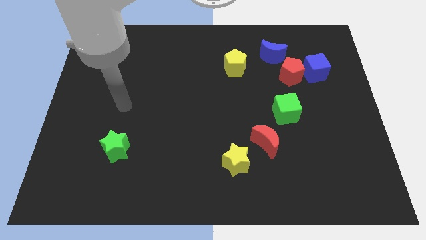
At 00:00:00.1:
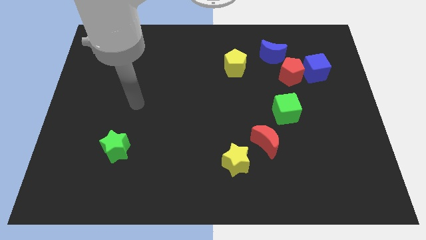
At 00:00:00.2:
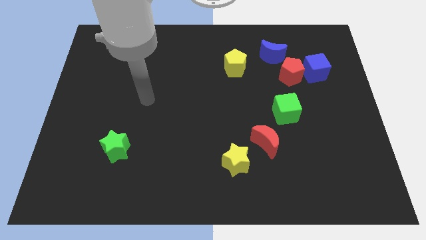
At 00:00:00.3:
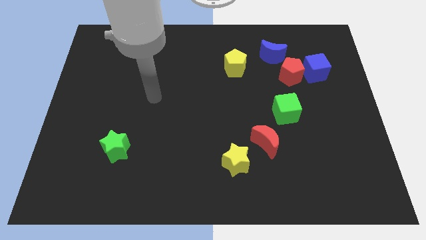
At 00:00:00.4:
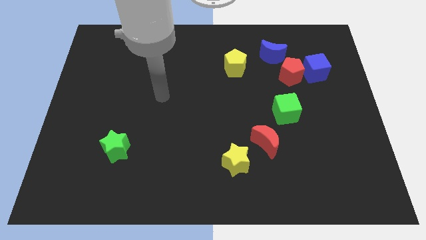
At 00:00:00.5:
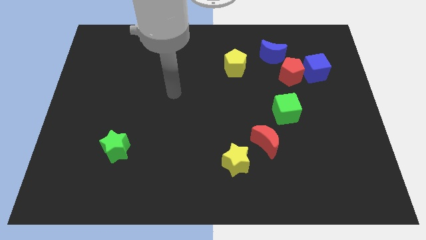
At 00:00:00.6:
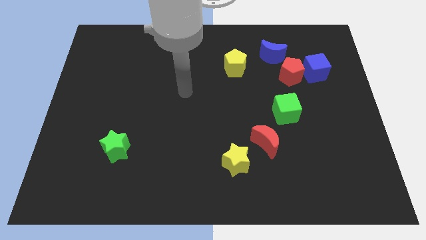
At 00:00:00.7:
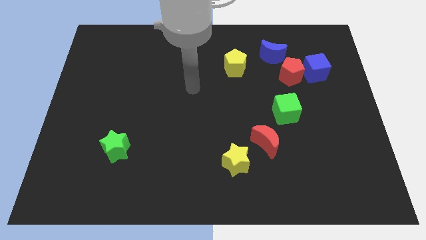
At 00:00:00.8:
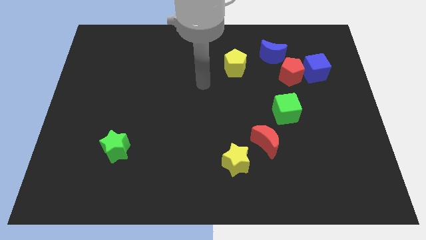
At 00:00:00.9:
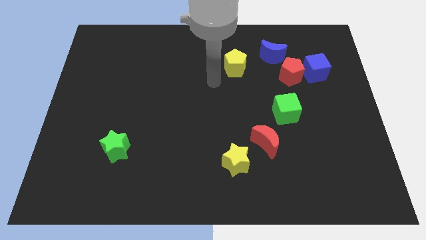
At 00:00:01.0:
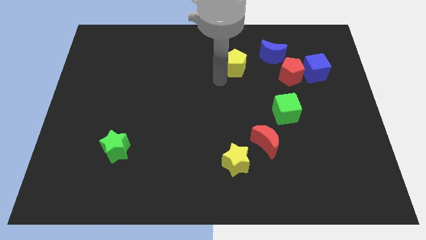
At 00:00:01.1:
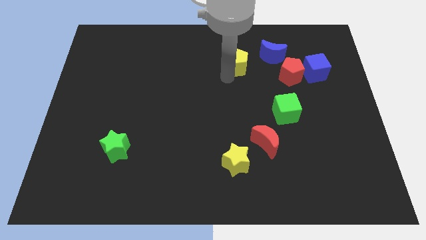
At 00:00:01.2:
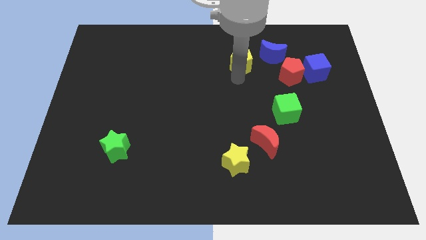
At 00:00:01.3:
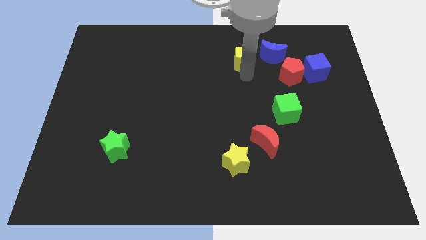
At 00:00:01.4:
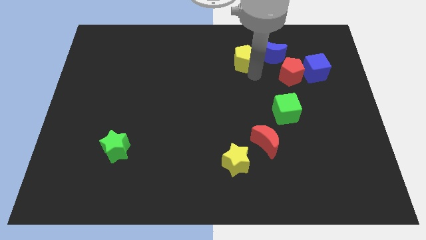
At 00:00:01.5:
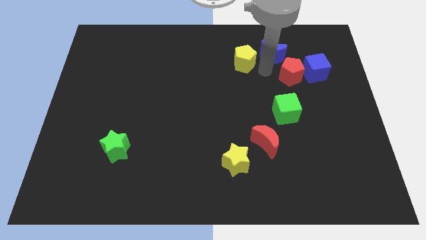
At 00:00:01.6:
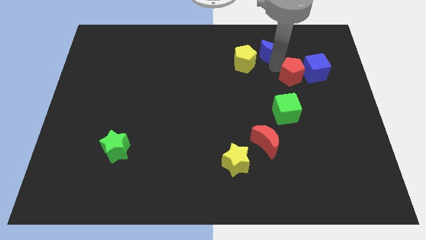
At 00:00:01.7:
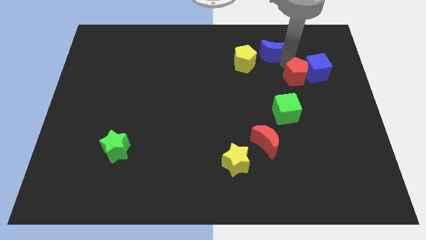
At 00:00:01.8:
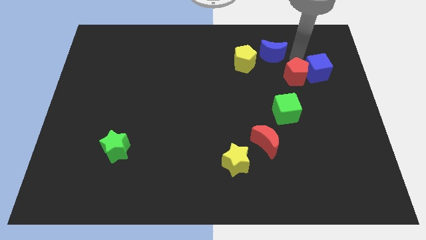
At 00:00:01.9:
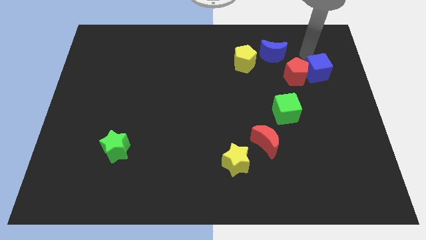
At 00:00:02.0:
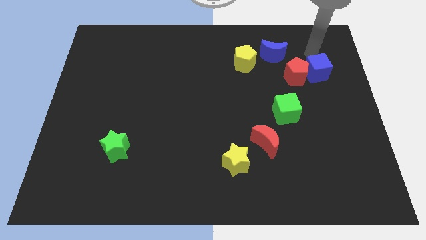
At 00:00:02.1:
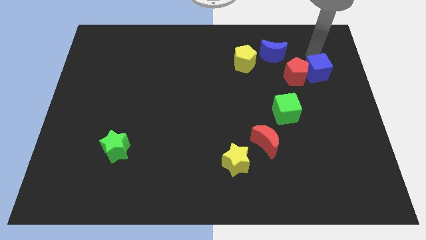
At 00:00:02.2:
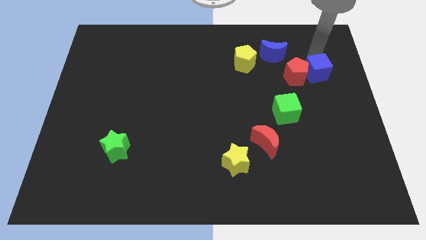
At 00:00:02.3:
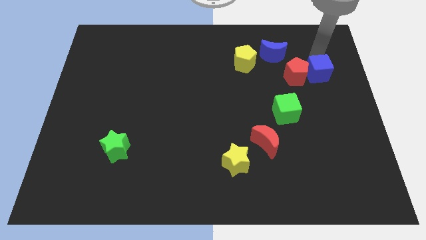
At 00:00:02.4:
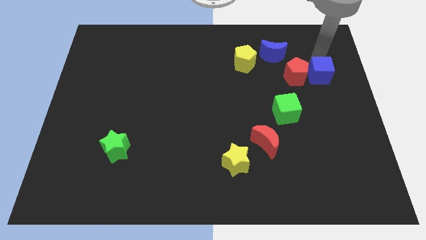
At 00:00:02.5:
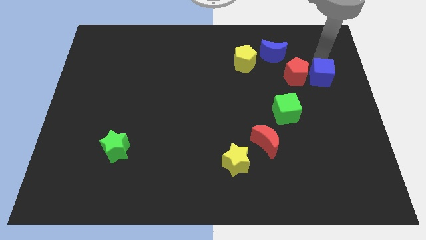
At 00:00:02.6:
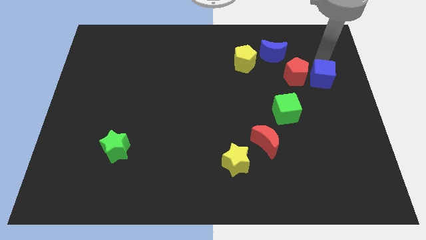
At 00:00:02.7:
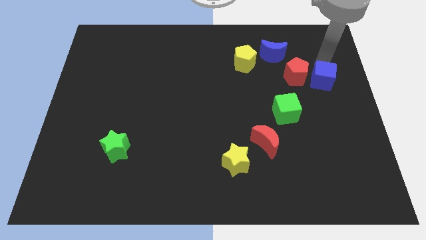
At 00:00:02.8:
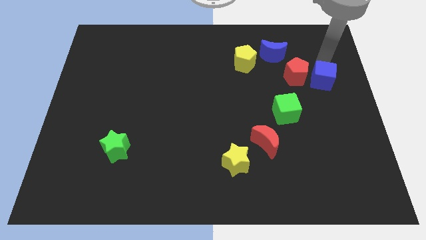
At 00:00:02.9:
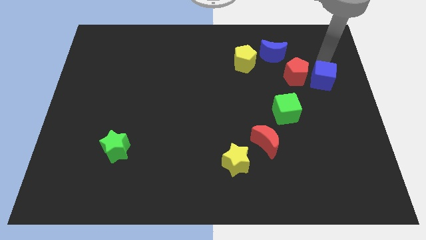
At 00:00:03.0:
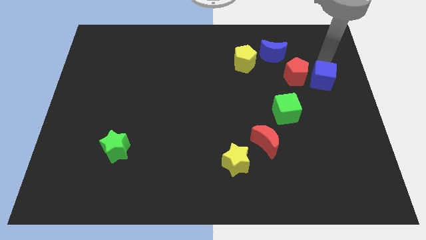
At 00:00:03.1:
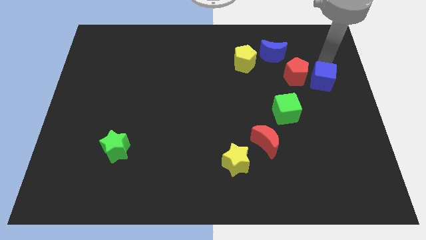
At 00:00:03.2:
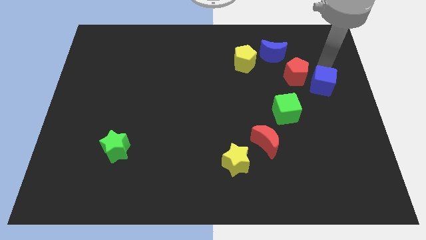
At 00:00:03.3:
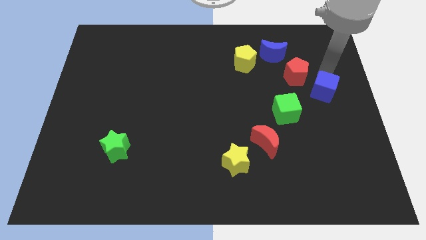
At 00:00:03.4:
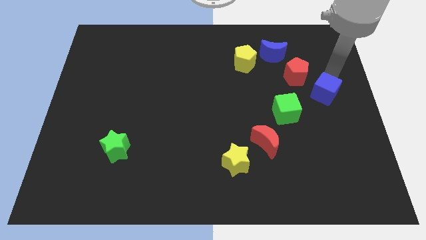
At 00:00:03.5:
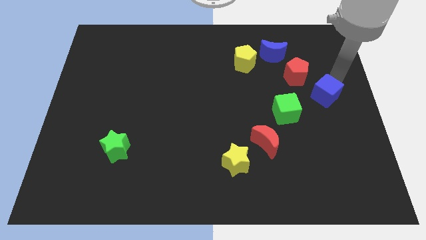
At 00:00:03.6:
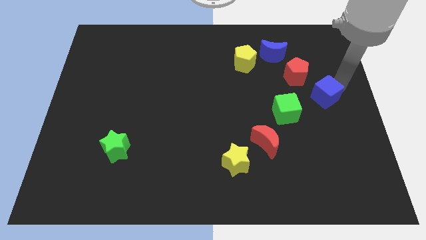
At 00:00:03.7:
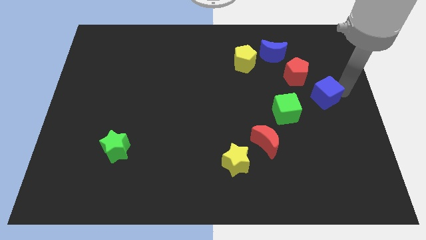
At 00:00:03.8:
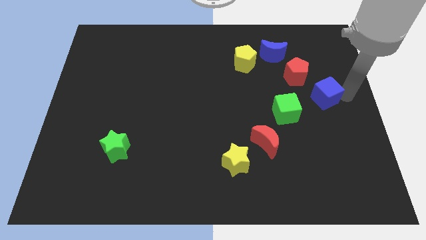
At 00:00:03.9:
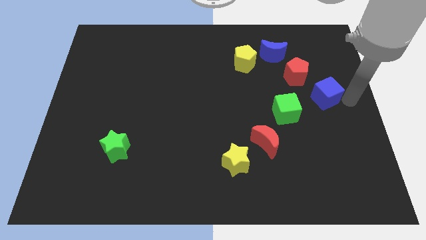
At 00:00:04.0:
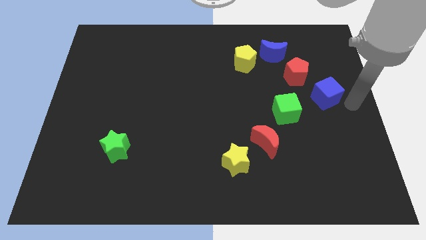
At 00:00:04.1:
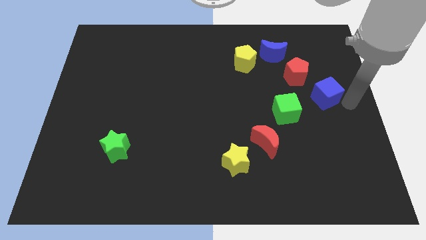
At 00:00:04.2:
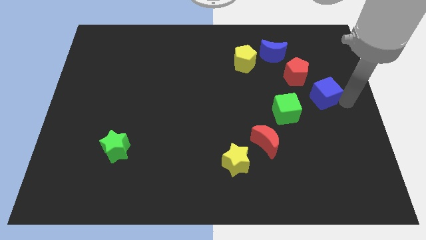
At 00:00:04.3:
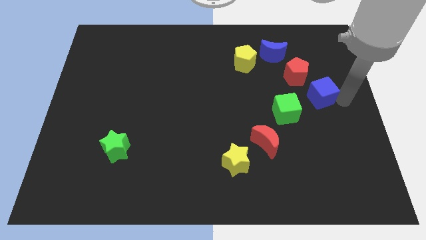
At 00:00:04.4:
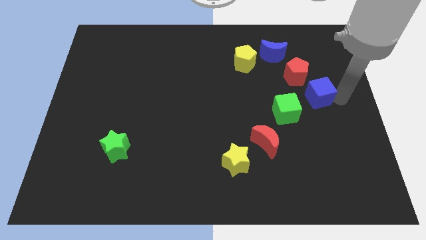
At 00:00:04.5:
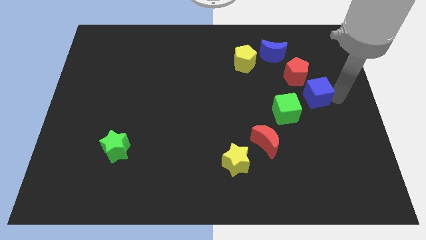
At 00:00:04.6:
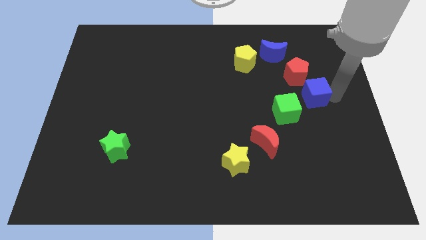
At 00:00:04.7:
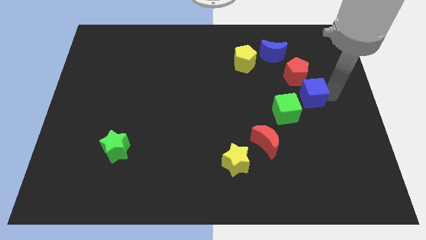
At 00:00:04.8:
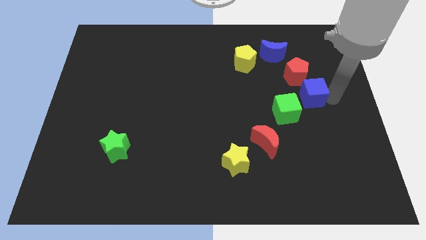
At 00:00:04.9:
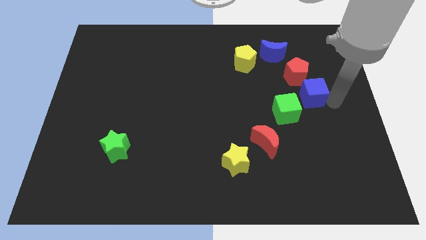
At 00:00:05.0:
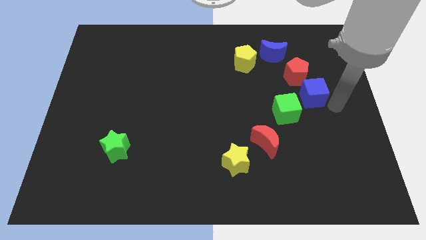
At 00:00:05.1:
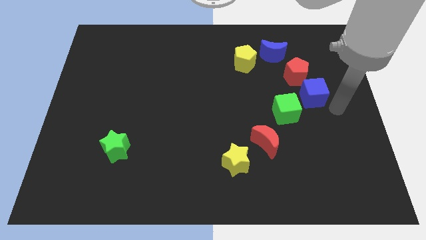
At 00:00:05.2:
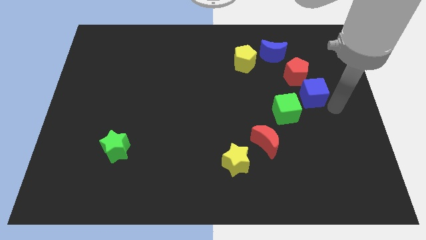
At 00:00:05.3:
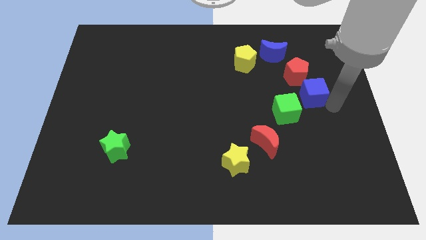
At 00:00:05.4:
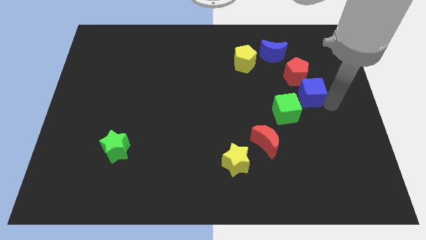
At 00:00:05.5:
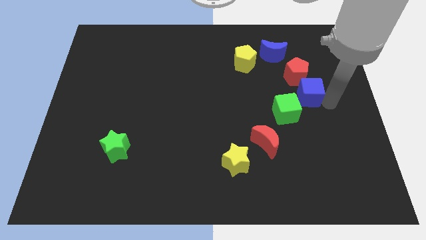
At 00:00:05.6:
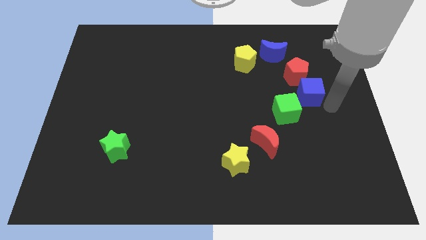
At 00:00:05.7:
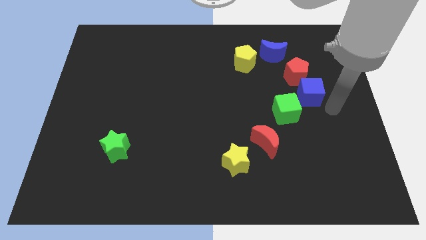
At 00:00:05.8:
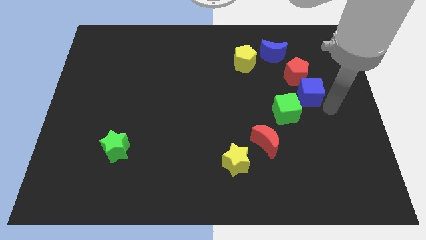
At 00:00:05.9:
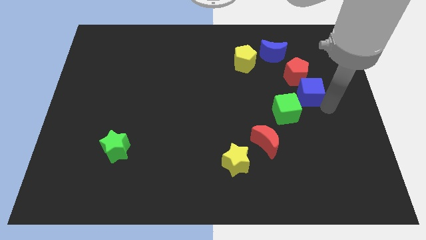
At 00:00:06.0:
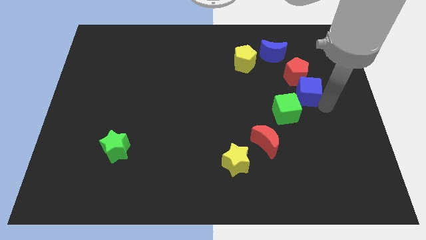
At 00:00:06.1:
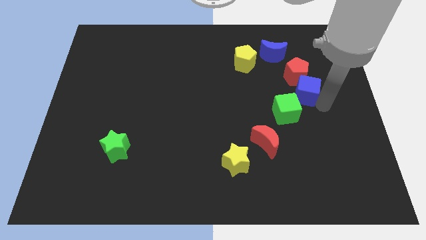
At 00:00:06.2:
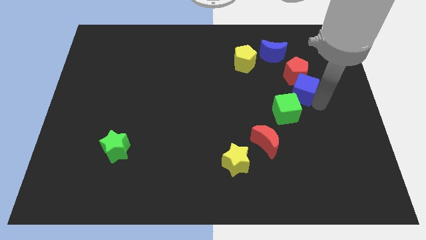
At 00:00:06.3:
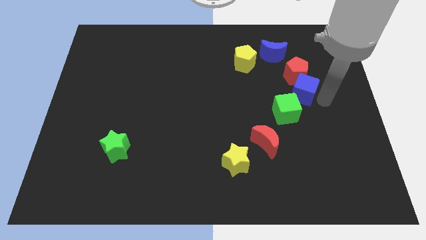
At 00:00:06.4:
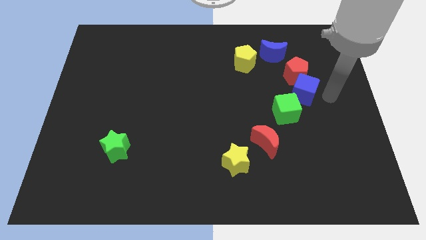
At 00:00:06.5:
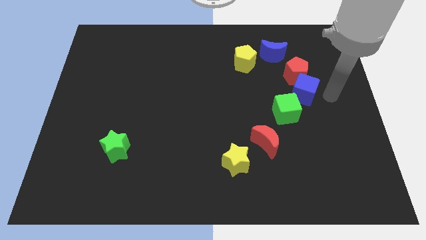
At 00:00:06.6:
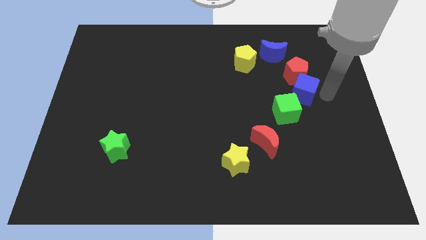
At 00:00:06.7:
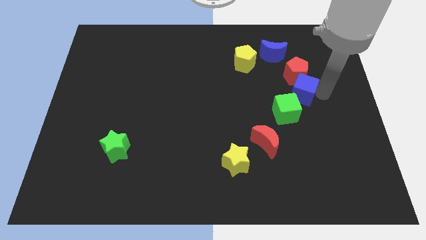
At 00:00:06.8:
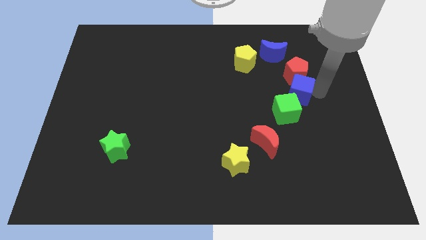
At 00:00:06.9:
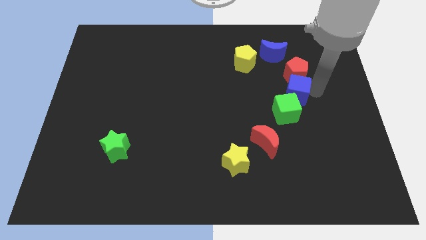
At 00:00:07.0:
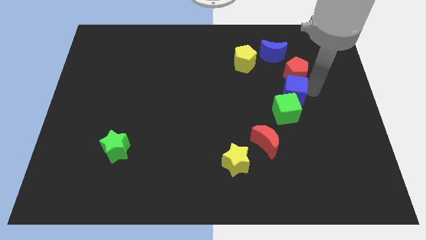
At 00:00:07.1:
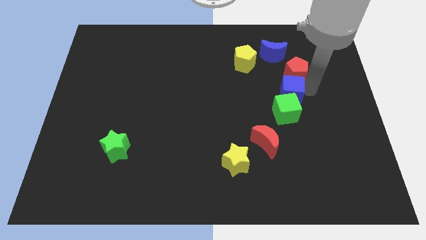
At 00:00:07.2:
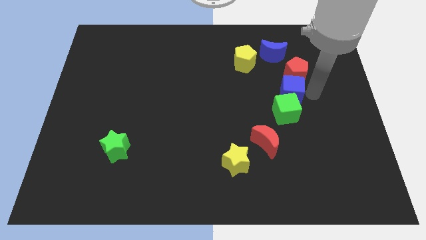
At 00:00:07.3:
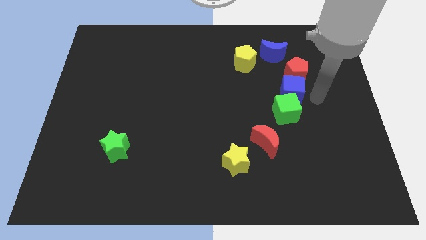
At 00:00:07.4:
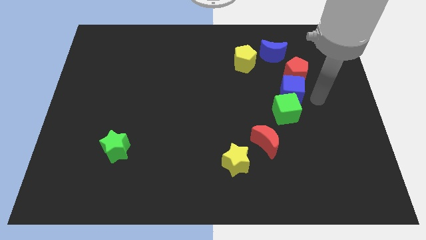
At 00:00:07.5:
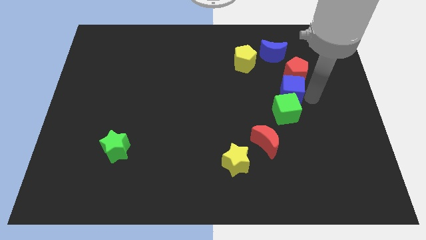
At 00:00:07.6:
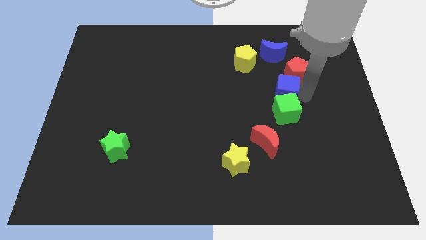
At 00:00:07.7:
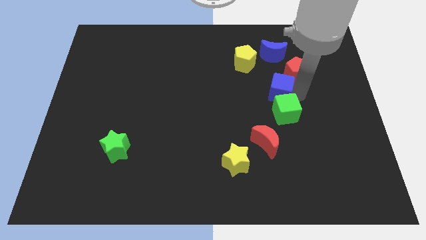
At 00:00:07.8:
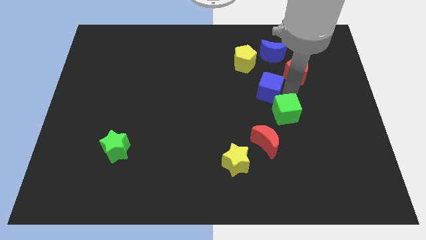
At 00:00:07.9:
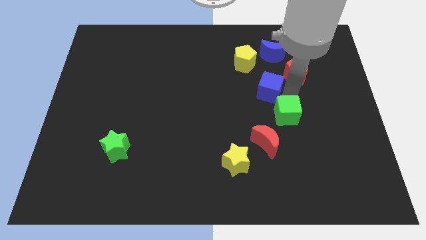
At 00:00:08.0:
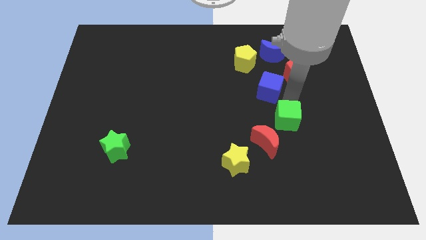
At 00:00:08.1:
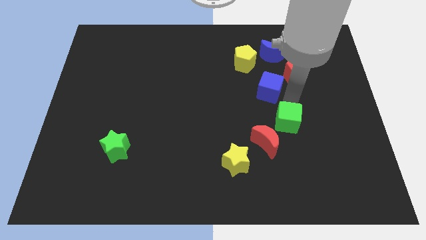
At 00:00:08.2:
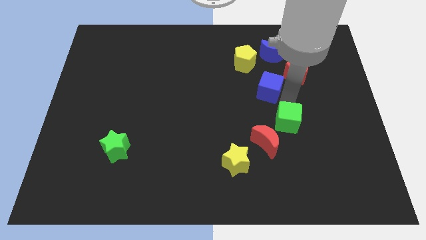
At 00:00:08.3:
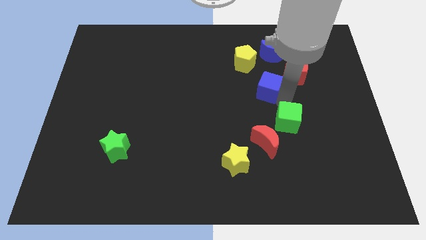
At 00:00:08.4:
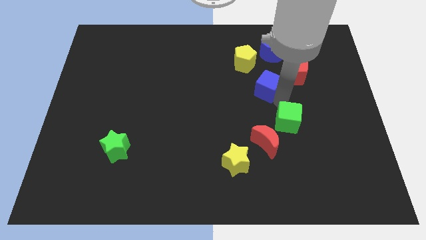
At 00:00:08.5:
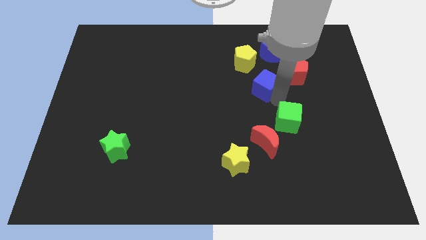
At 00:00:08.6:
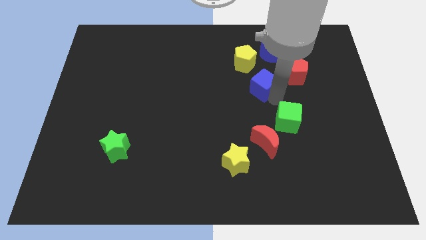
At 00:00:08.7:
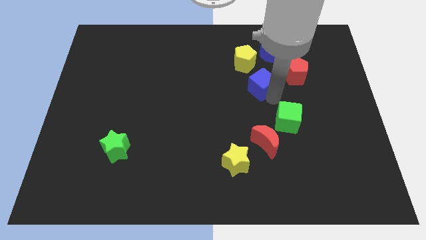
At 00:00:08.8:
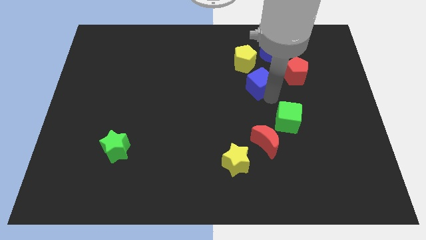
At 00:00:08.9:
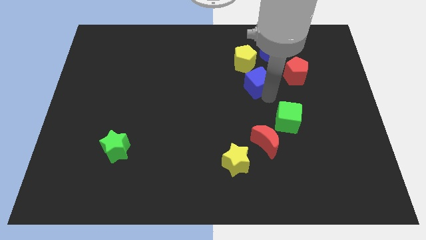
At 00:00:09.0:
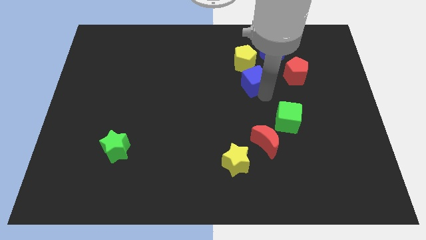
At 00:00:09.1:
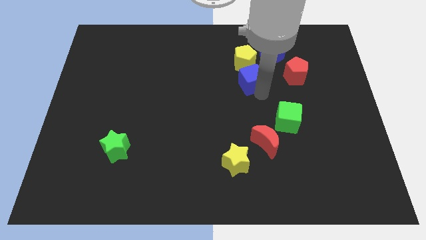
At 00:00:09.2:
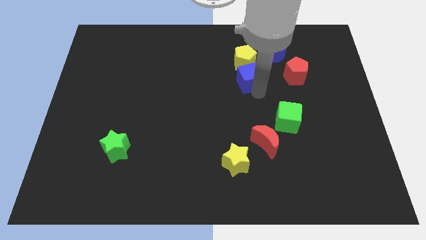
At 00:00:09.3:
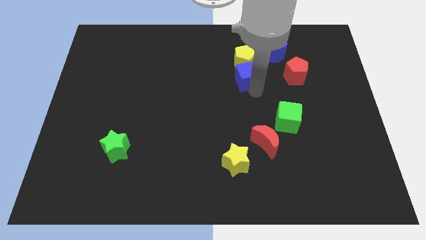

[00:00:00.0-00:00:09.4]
move the blue cube close to the yellow pentagon
